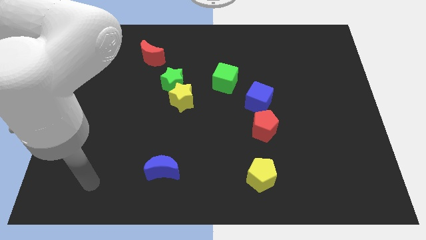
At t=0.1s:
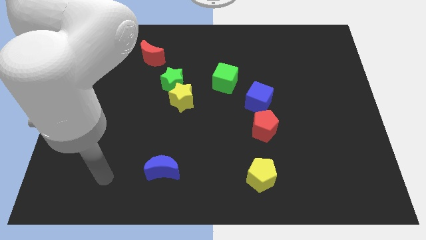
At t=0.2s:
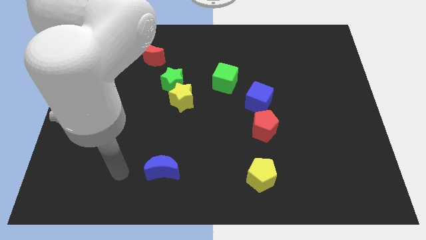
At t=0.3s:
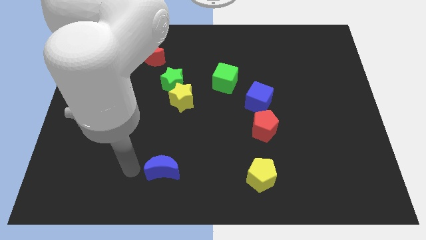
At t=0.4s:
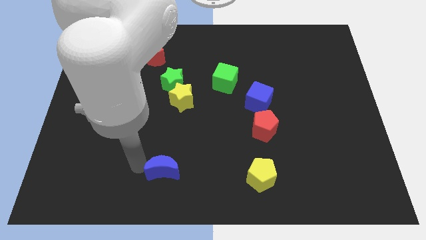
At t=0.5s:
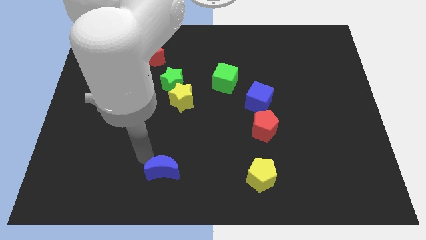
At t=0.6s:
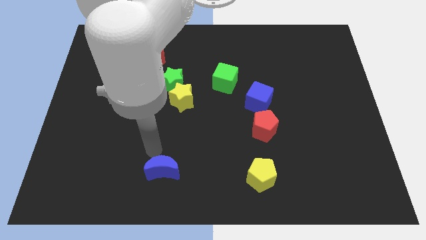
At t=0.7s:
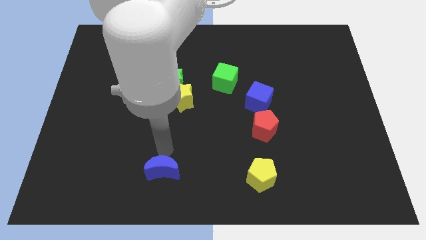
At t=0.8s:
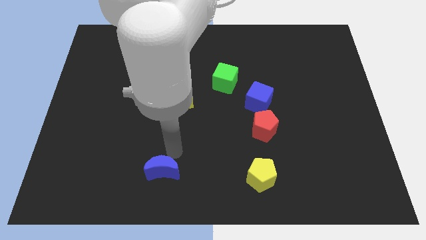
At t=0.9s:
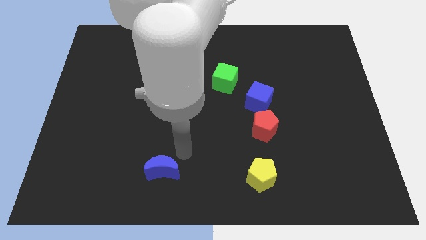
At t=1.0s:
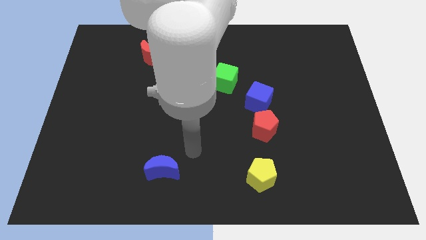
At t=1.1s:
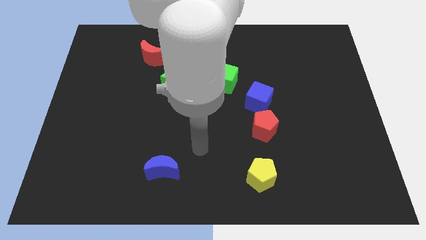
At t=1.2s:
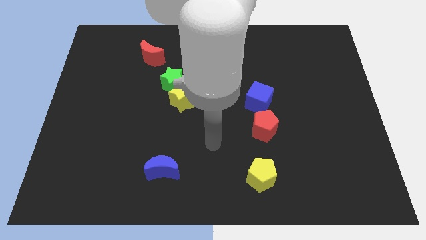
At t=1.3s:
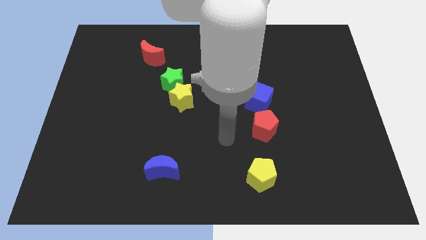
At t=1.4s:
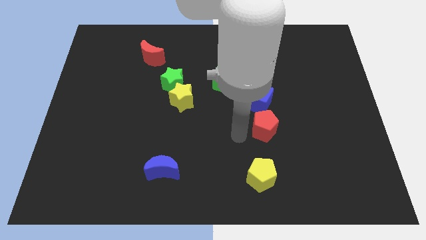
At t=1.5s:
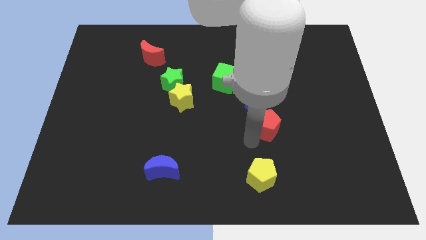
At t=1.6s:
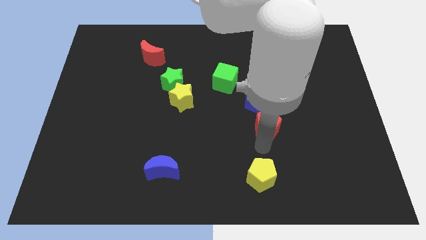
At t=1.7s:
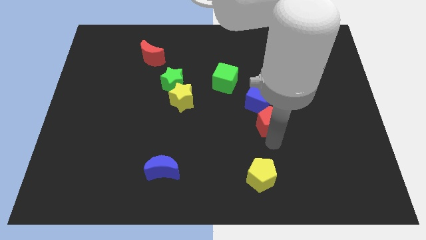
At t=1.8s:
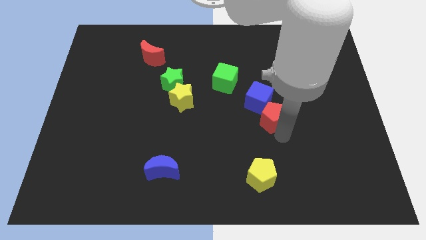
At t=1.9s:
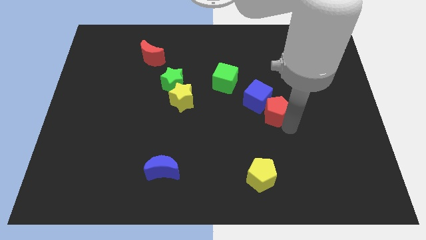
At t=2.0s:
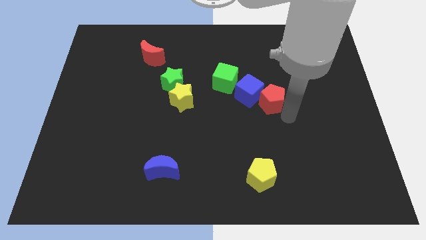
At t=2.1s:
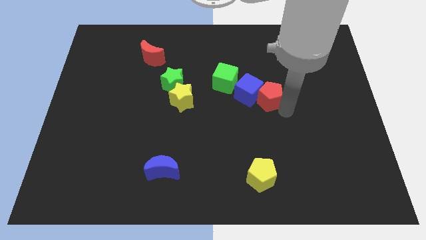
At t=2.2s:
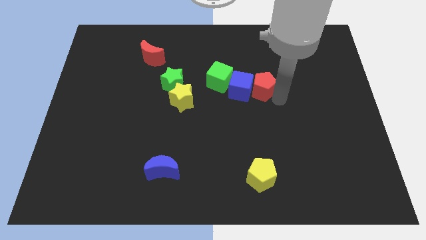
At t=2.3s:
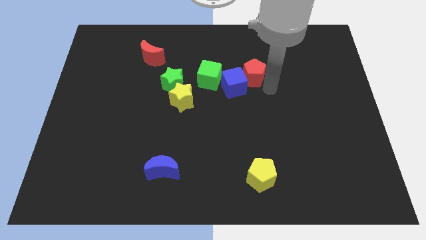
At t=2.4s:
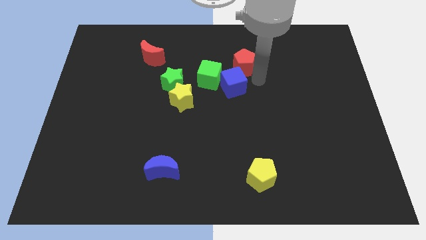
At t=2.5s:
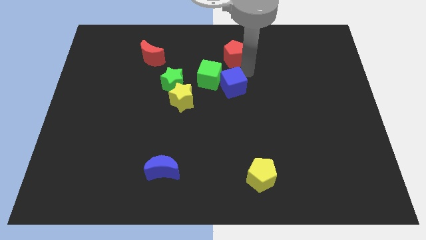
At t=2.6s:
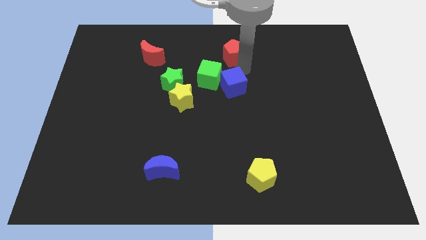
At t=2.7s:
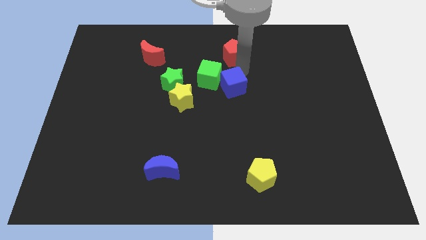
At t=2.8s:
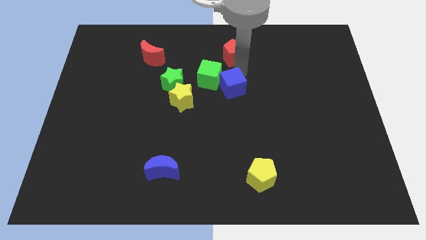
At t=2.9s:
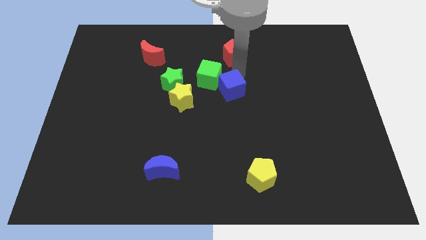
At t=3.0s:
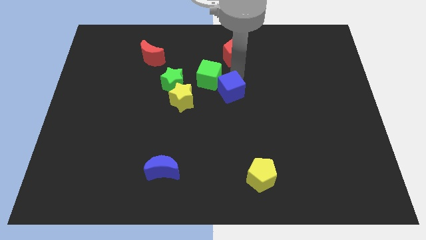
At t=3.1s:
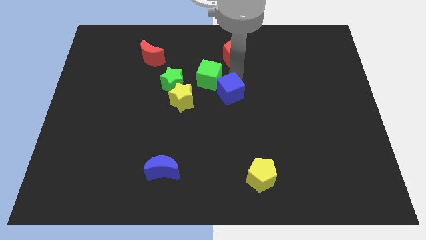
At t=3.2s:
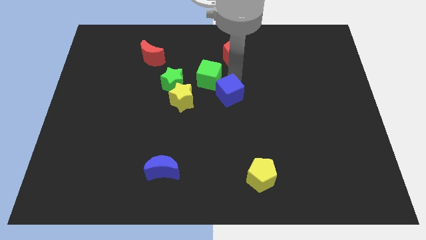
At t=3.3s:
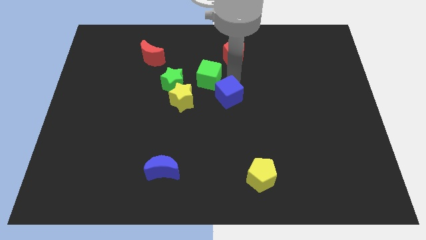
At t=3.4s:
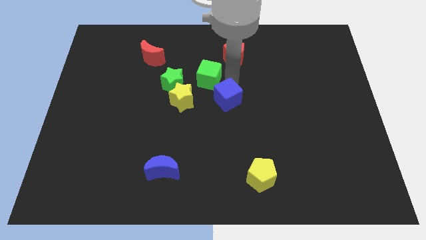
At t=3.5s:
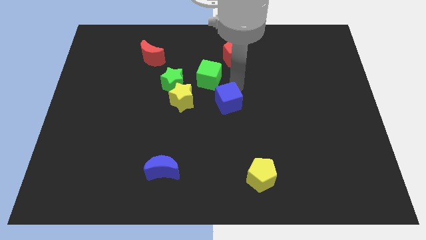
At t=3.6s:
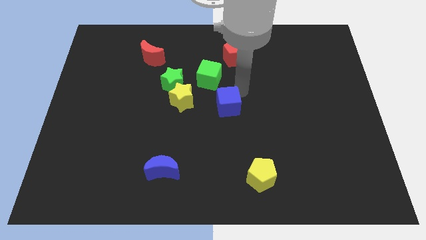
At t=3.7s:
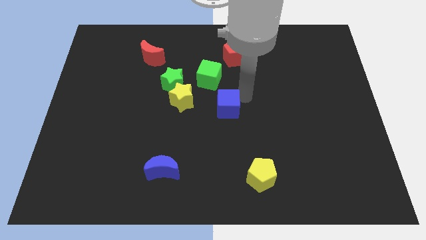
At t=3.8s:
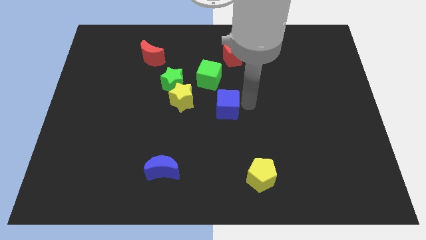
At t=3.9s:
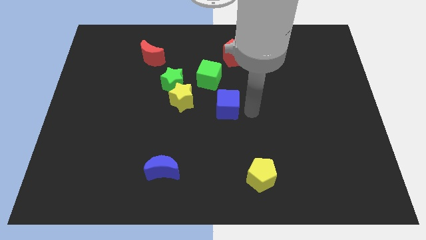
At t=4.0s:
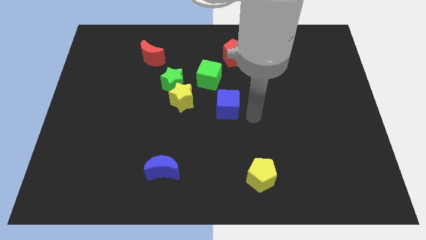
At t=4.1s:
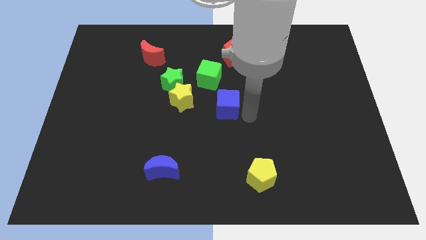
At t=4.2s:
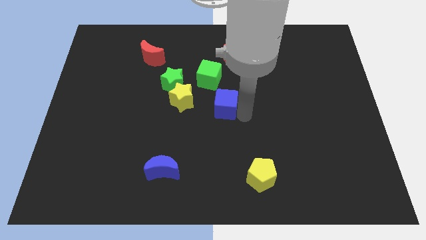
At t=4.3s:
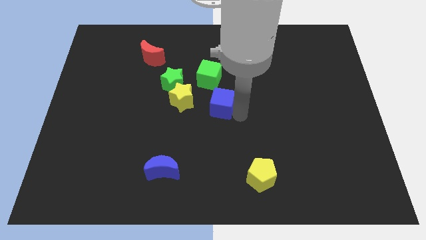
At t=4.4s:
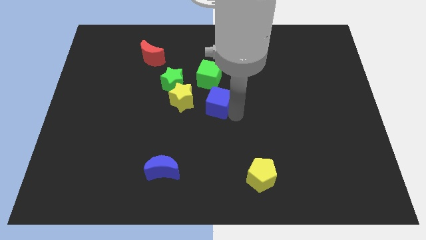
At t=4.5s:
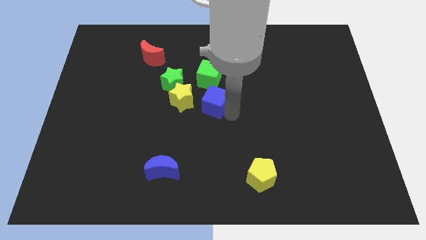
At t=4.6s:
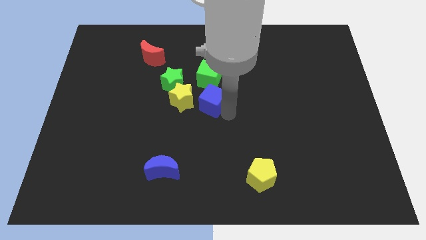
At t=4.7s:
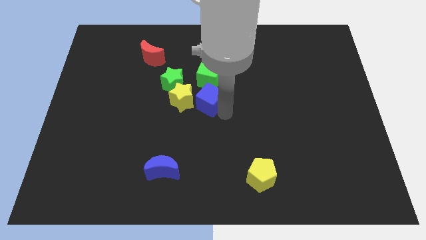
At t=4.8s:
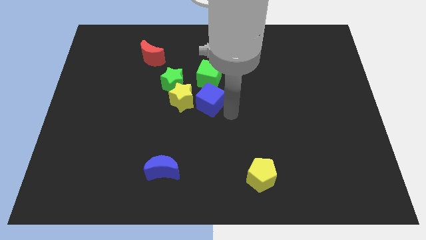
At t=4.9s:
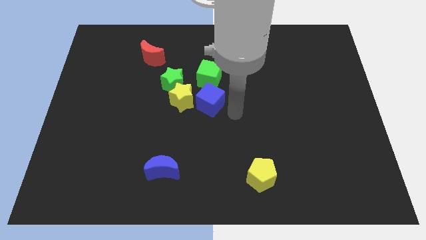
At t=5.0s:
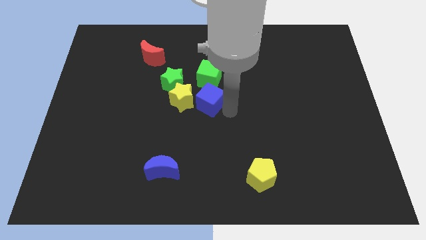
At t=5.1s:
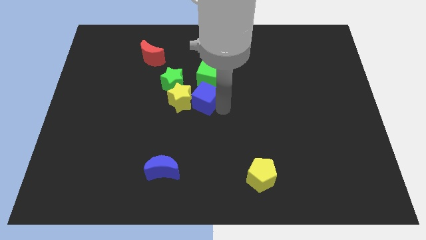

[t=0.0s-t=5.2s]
push the blue cube to the bottom left side of the green cube

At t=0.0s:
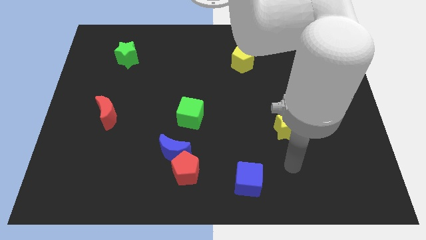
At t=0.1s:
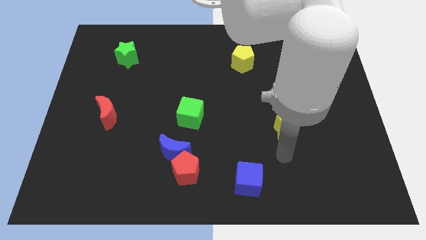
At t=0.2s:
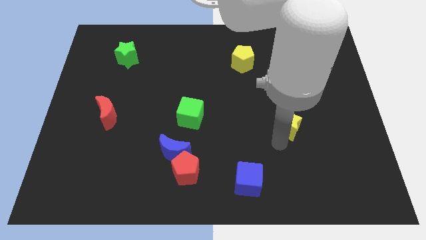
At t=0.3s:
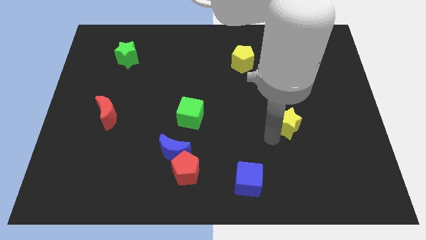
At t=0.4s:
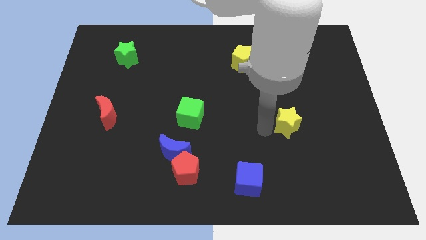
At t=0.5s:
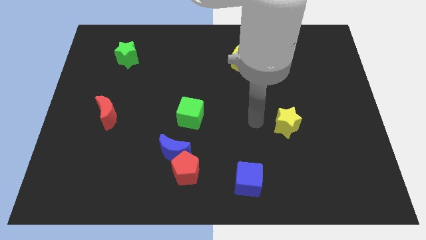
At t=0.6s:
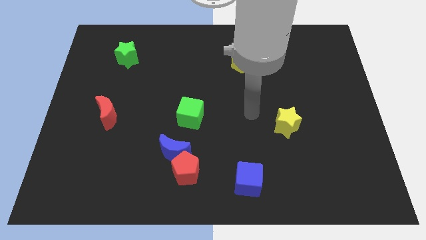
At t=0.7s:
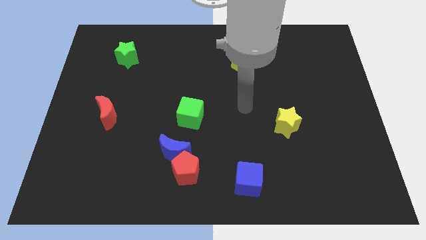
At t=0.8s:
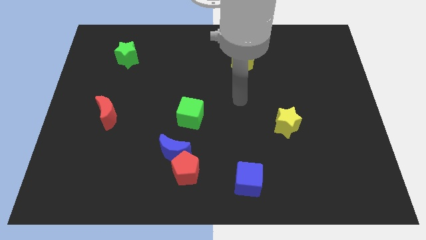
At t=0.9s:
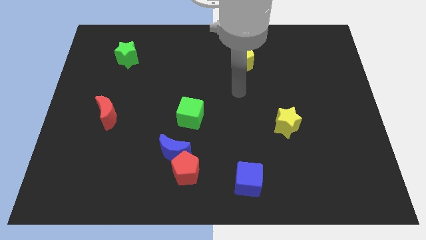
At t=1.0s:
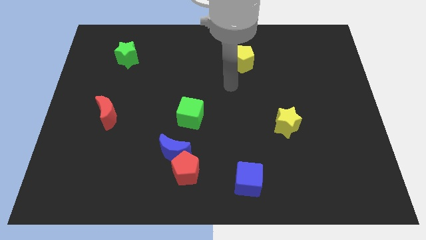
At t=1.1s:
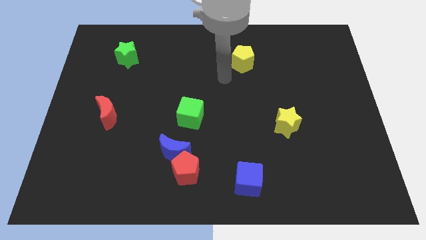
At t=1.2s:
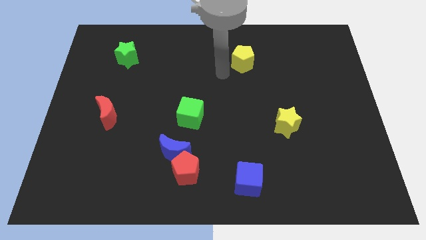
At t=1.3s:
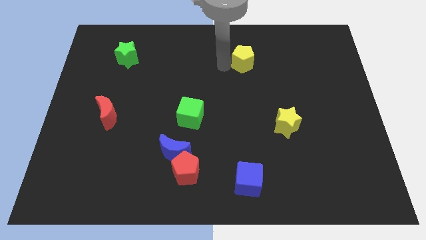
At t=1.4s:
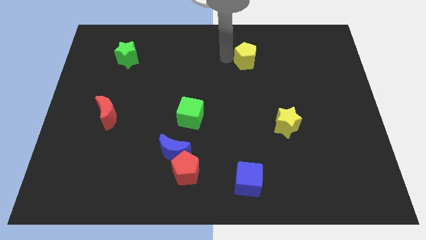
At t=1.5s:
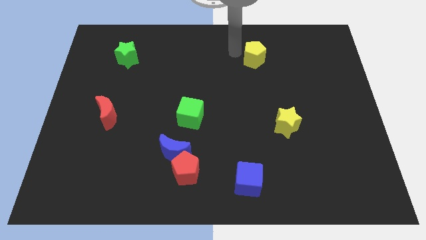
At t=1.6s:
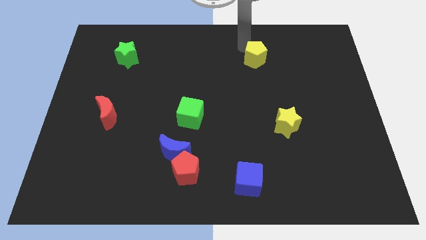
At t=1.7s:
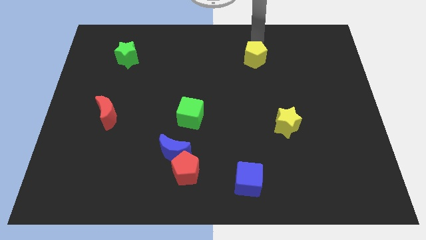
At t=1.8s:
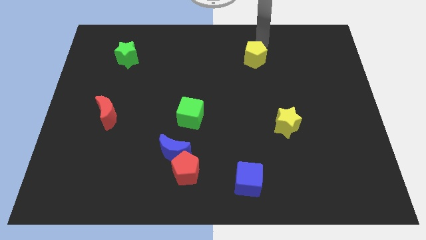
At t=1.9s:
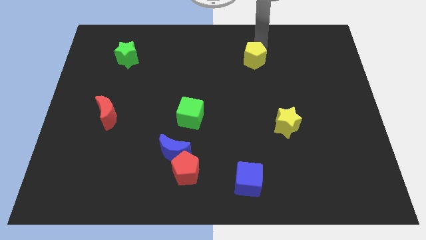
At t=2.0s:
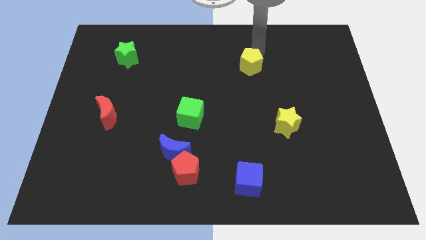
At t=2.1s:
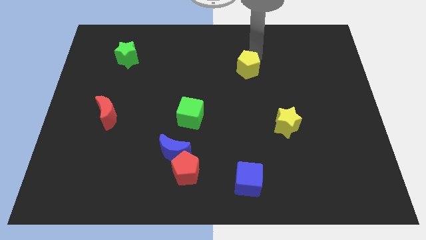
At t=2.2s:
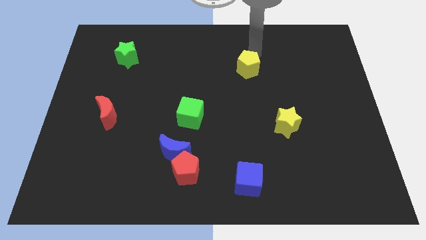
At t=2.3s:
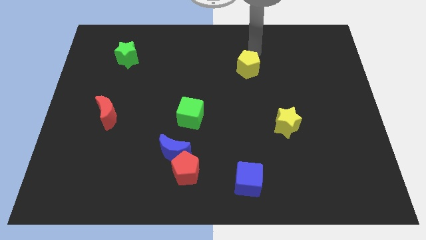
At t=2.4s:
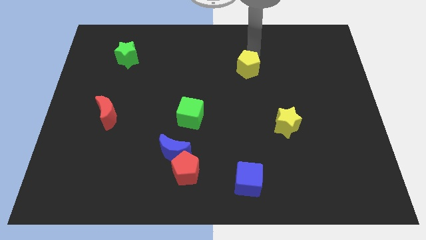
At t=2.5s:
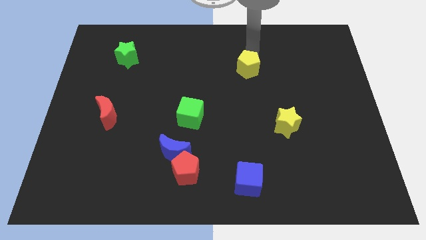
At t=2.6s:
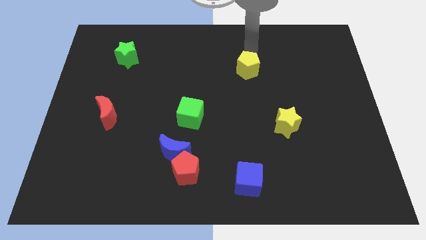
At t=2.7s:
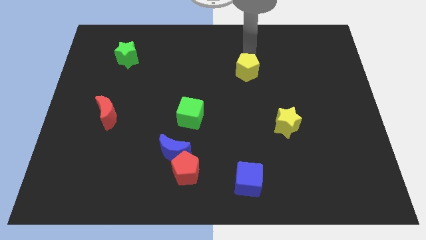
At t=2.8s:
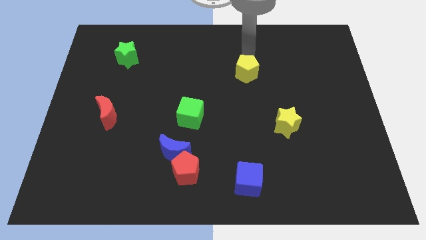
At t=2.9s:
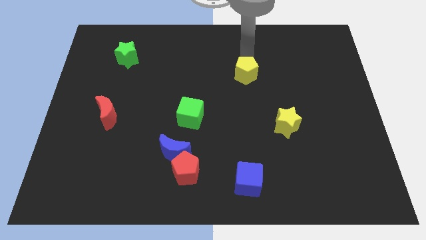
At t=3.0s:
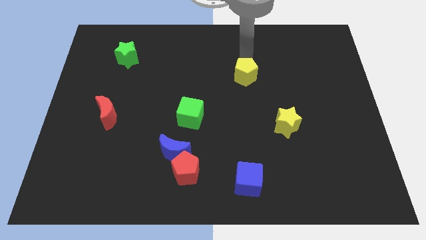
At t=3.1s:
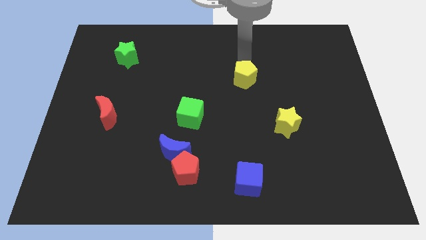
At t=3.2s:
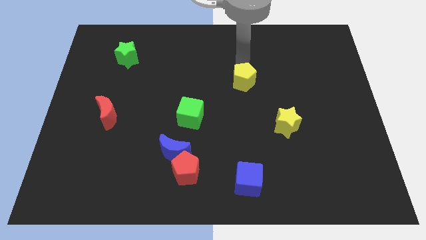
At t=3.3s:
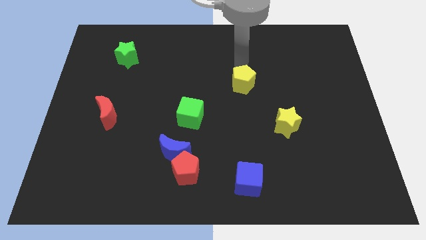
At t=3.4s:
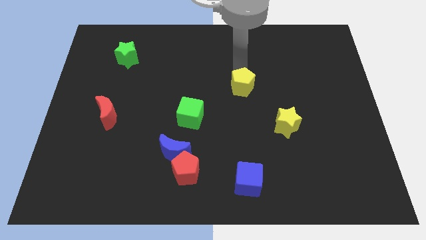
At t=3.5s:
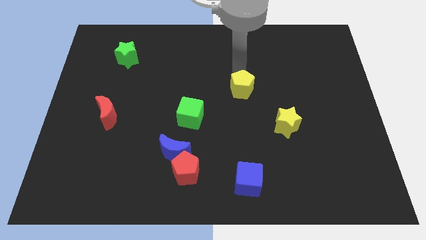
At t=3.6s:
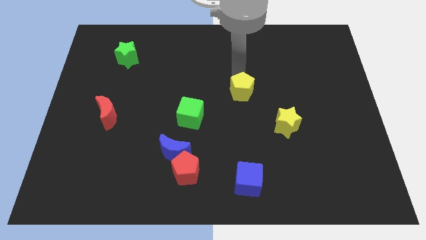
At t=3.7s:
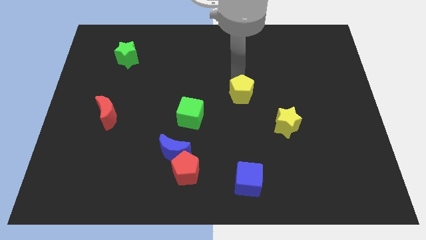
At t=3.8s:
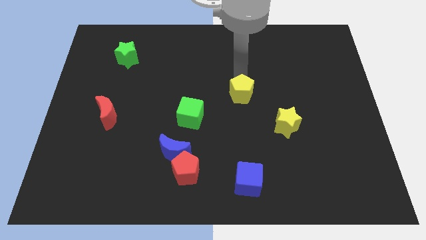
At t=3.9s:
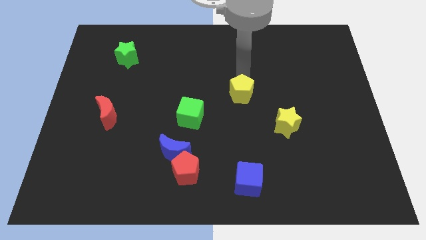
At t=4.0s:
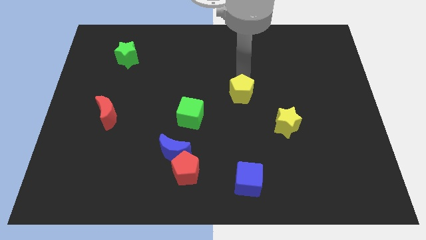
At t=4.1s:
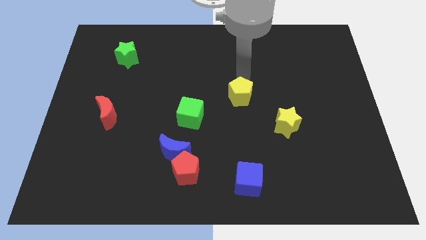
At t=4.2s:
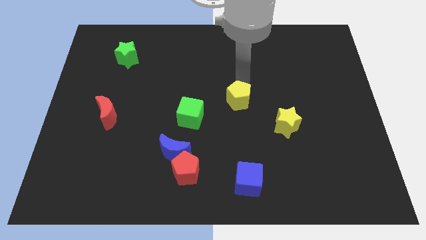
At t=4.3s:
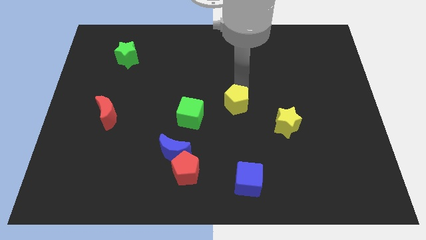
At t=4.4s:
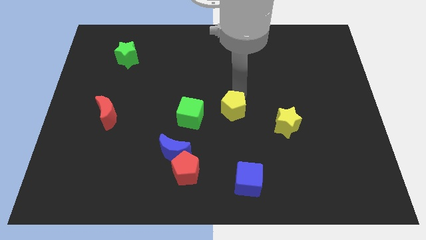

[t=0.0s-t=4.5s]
move the yellow pentagon left of the yellow star
